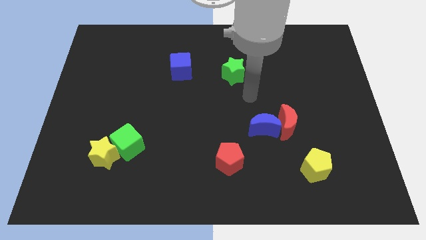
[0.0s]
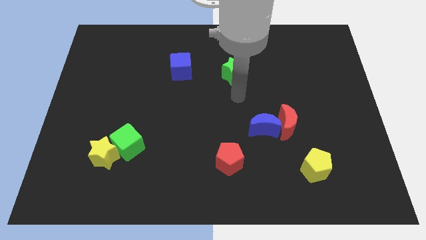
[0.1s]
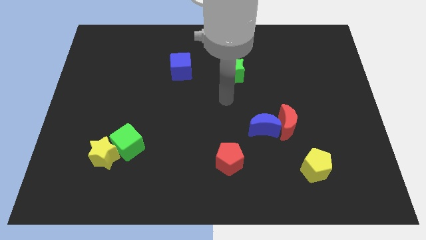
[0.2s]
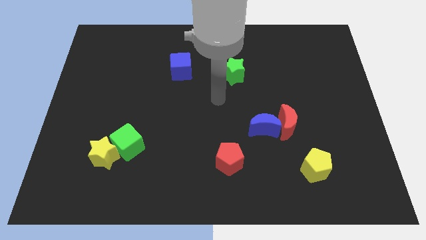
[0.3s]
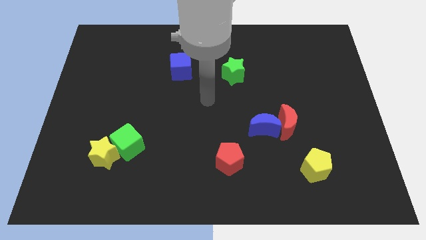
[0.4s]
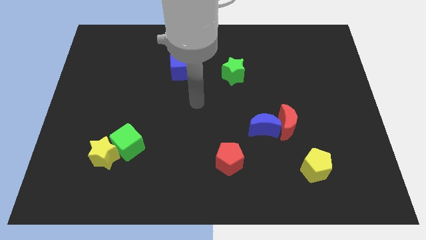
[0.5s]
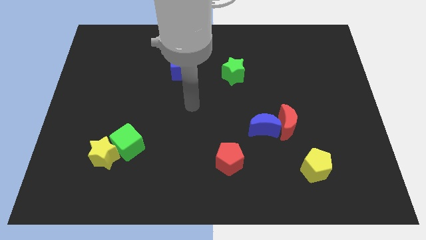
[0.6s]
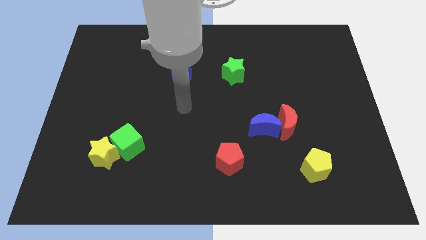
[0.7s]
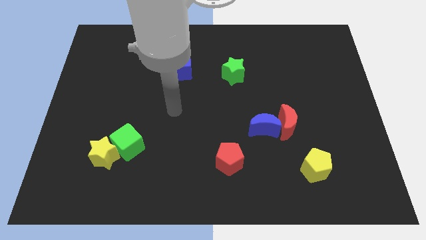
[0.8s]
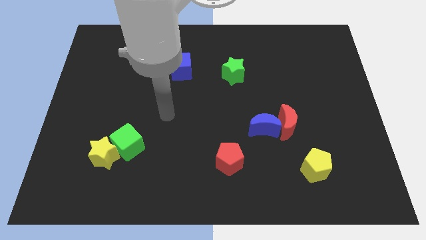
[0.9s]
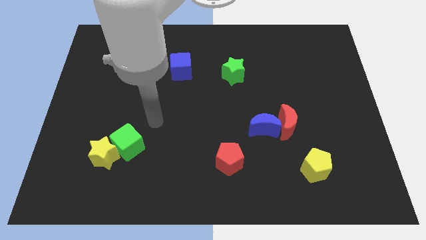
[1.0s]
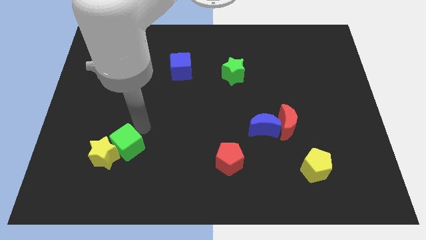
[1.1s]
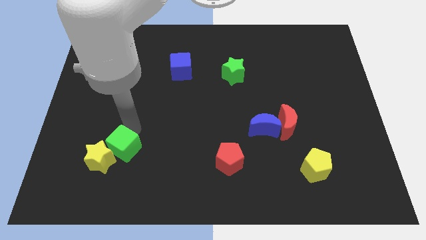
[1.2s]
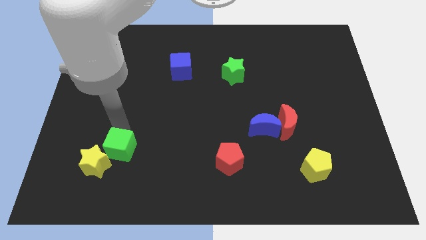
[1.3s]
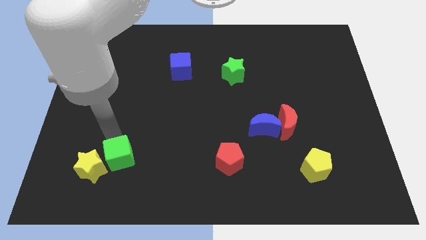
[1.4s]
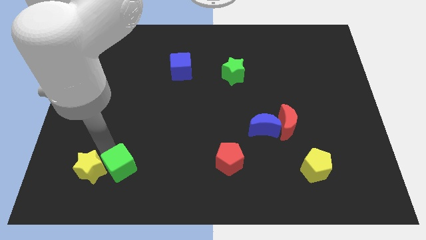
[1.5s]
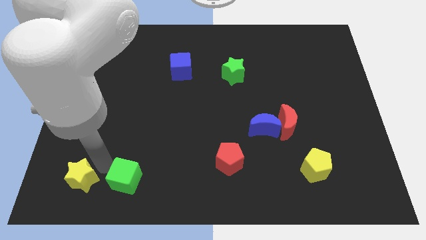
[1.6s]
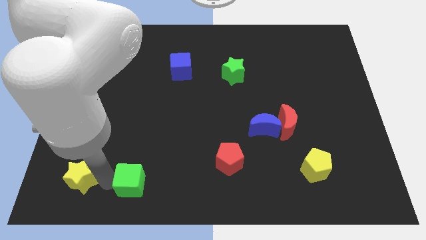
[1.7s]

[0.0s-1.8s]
separate the green cube from the yellow star

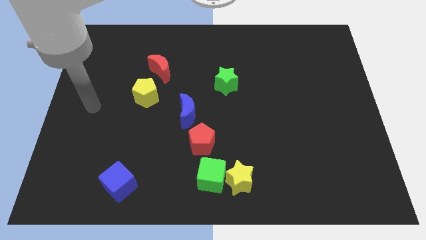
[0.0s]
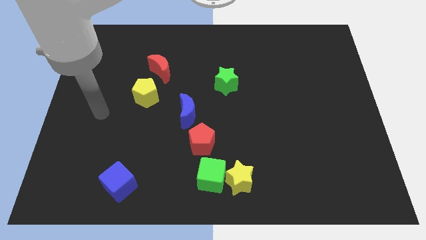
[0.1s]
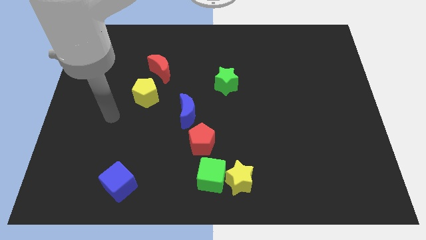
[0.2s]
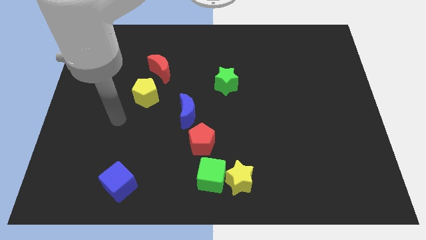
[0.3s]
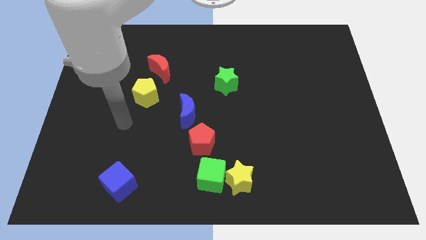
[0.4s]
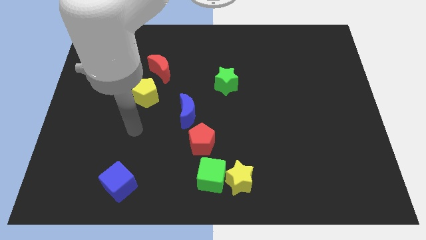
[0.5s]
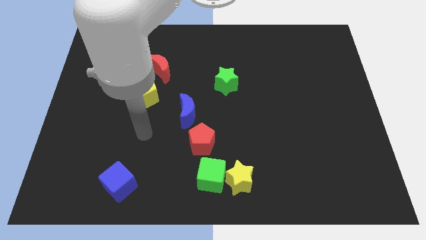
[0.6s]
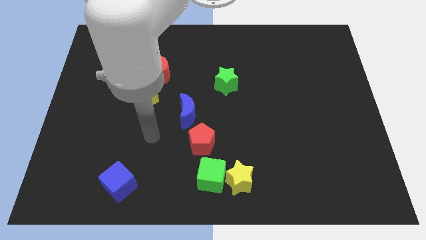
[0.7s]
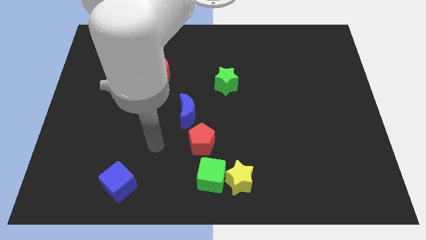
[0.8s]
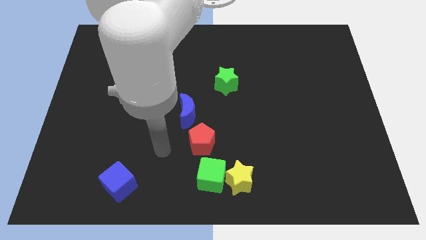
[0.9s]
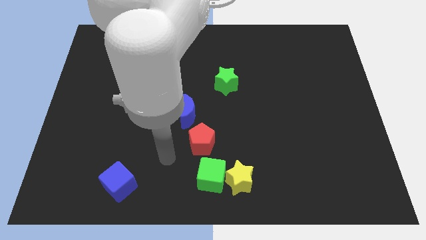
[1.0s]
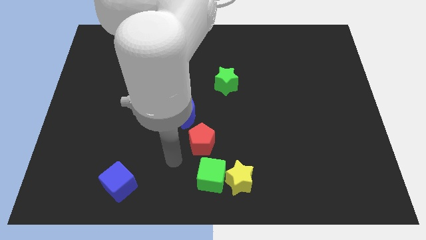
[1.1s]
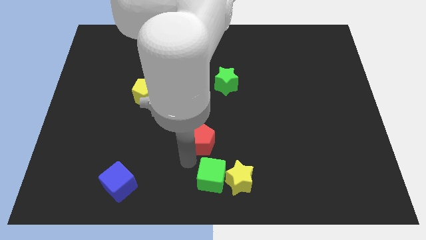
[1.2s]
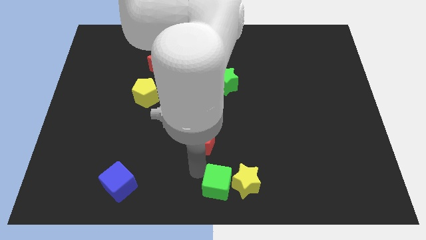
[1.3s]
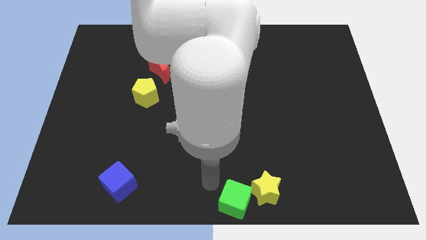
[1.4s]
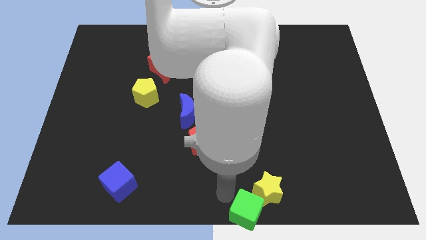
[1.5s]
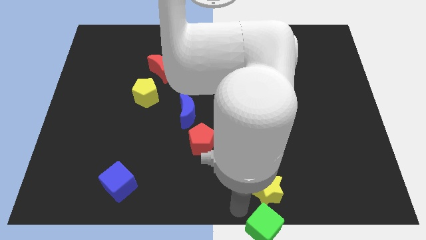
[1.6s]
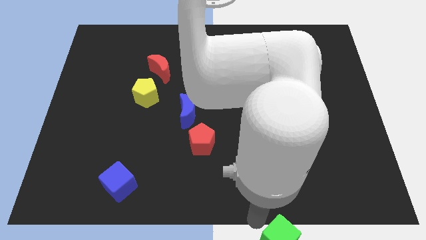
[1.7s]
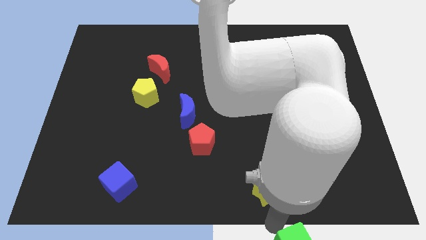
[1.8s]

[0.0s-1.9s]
separate the yellow star from the green cube

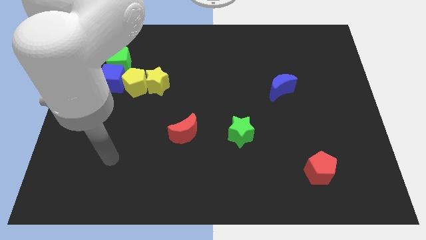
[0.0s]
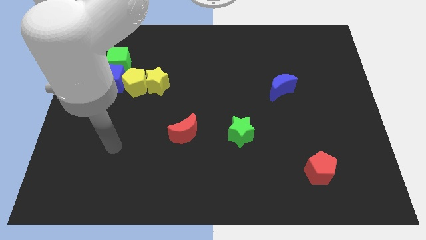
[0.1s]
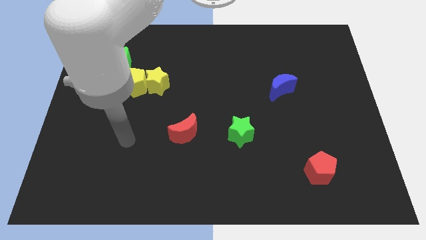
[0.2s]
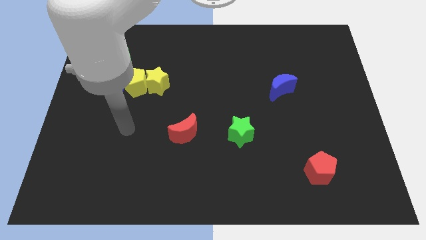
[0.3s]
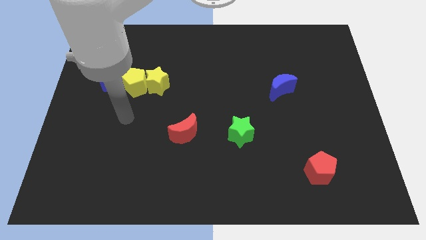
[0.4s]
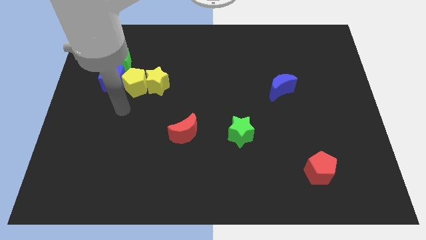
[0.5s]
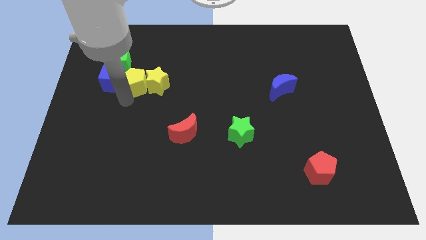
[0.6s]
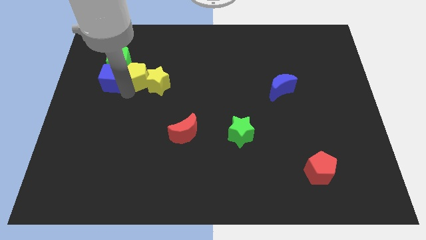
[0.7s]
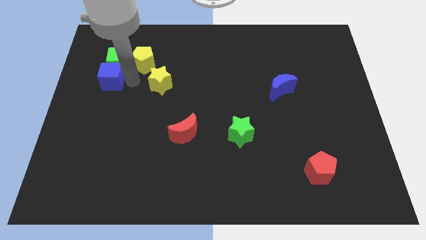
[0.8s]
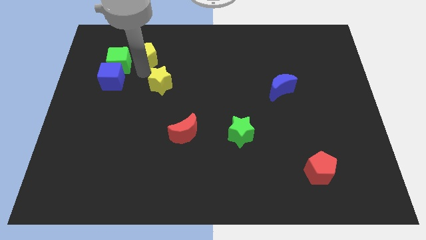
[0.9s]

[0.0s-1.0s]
separate the yellow star from the yellow pentagon

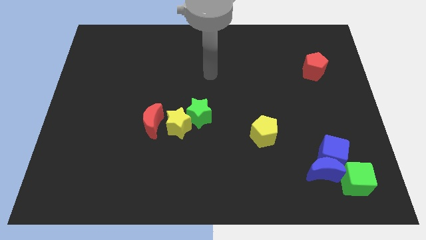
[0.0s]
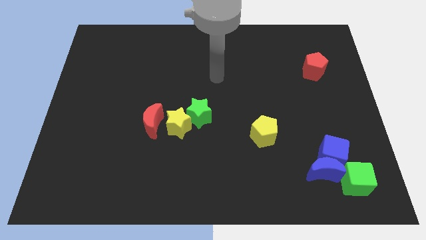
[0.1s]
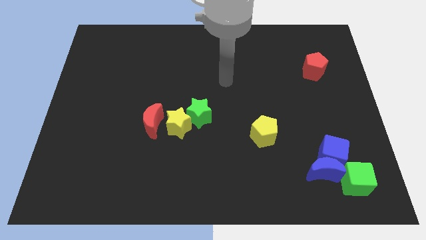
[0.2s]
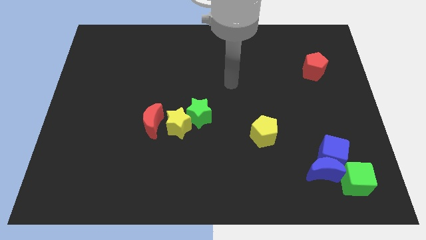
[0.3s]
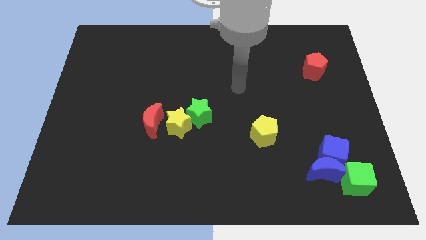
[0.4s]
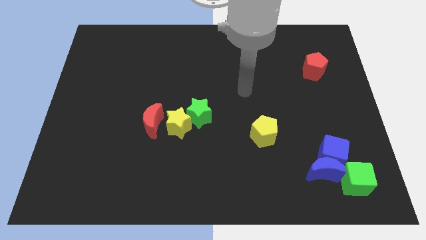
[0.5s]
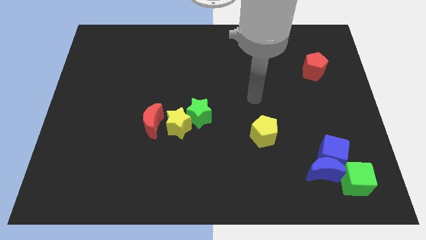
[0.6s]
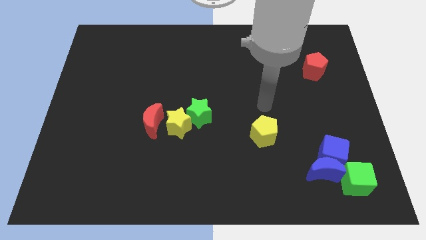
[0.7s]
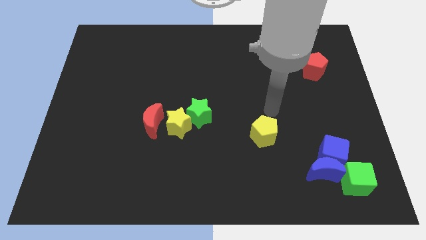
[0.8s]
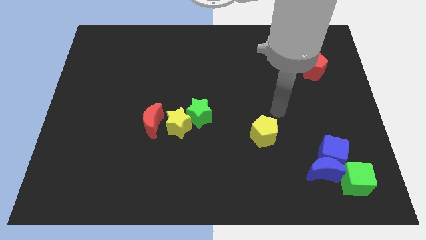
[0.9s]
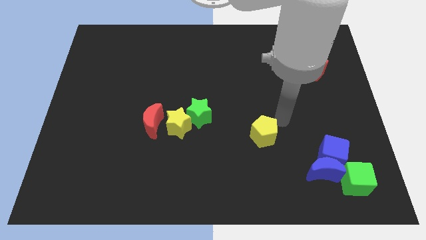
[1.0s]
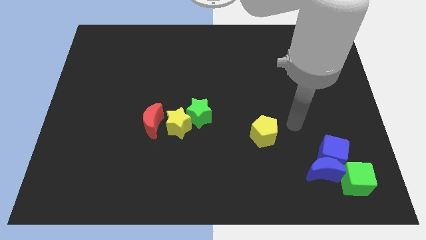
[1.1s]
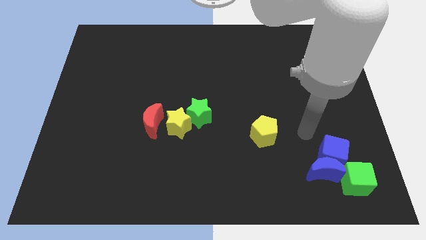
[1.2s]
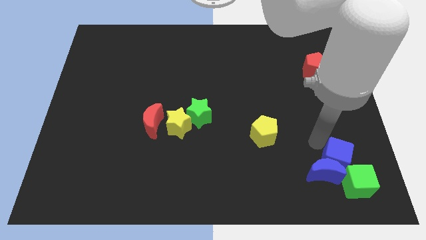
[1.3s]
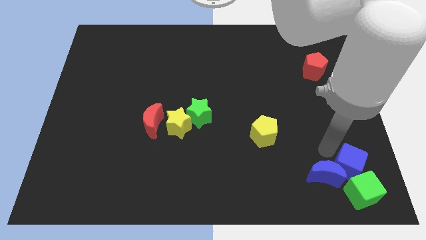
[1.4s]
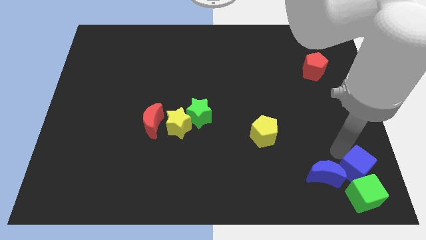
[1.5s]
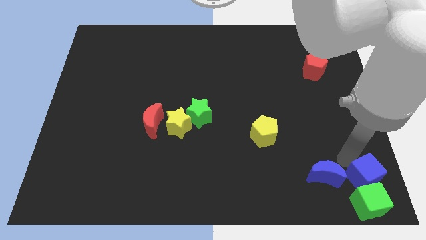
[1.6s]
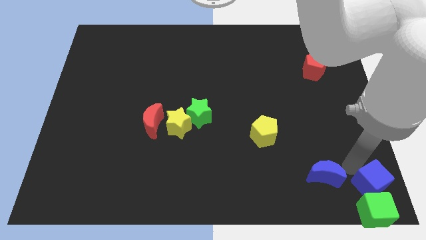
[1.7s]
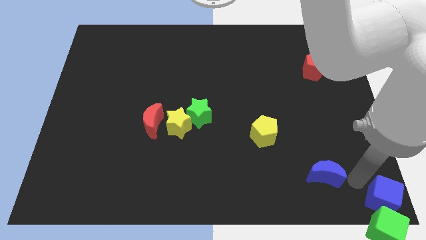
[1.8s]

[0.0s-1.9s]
separate the blue moon from the blue cube and green cube

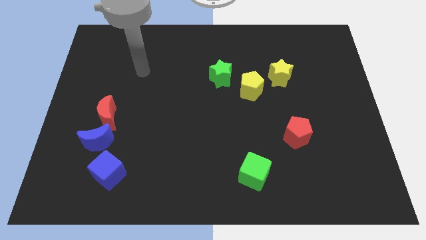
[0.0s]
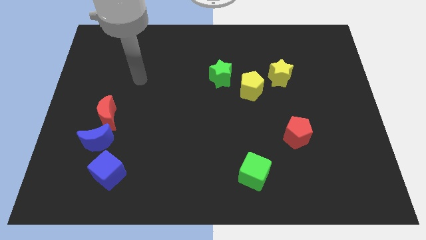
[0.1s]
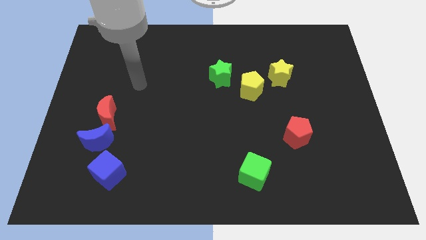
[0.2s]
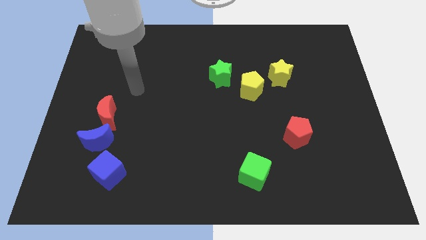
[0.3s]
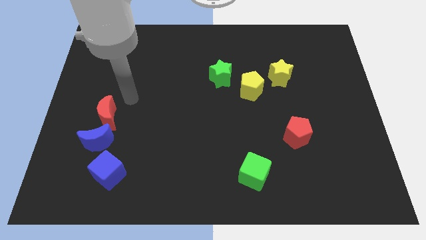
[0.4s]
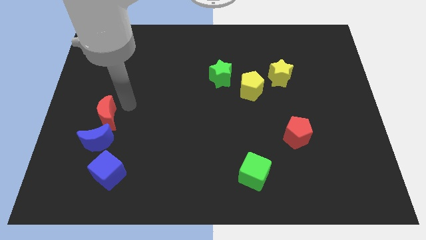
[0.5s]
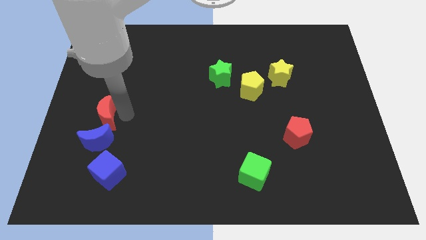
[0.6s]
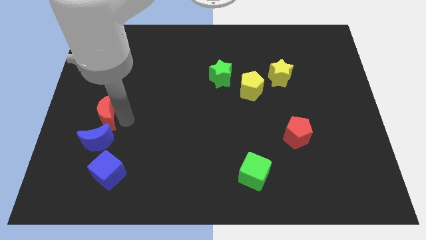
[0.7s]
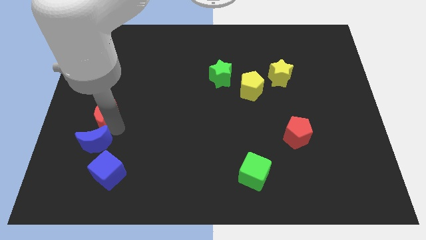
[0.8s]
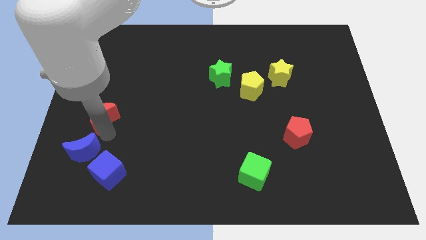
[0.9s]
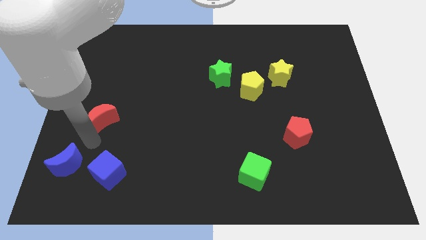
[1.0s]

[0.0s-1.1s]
pull the red moon apart from the blue moon

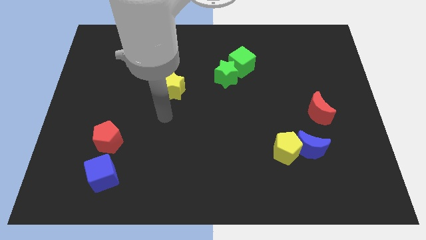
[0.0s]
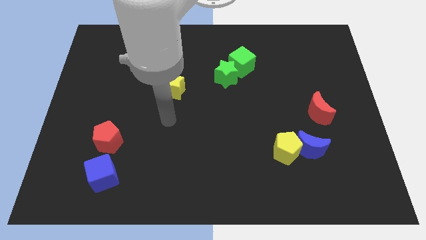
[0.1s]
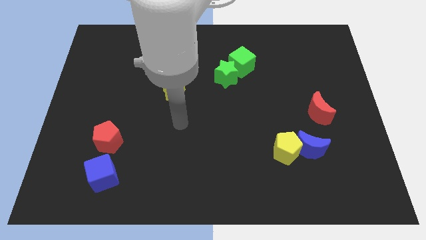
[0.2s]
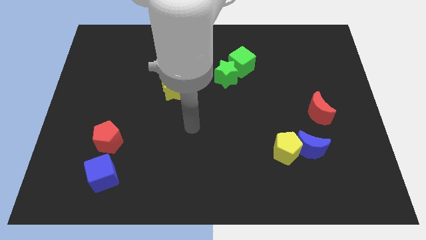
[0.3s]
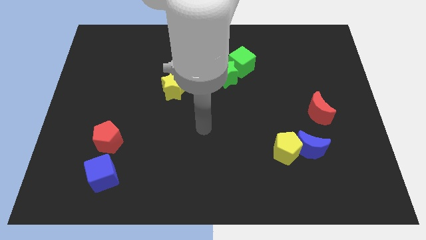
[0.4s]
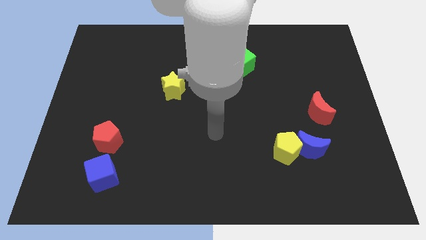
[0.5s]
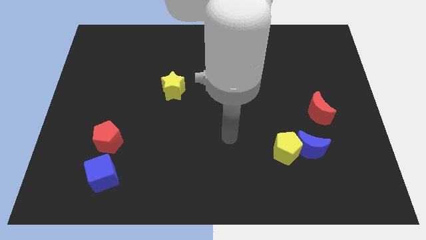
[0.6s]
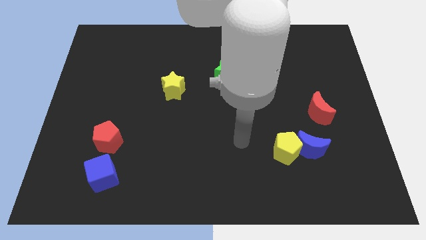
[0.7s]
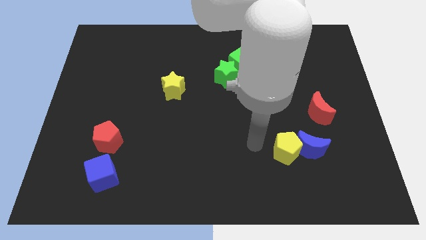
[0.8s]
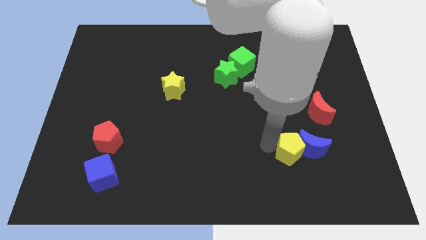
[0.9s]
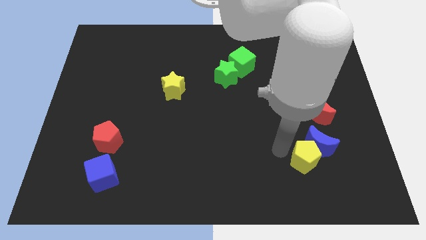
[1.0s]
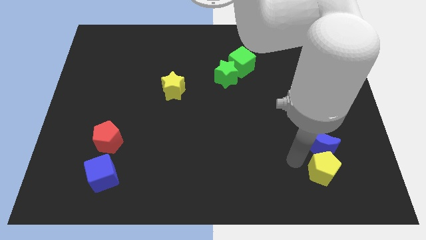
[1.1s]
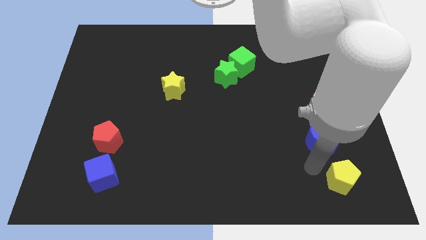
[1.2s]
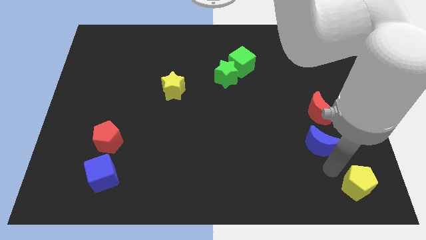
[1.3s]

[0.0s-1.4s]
pull the blue moon apart from the yellow pentagon
